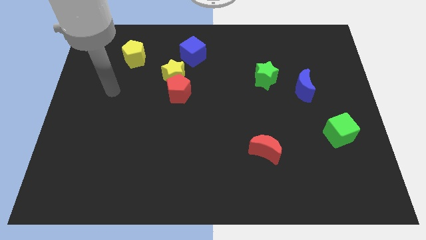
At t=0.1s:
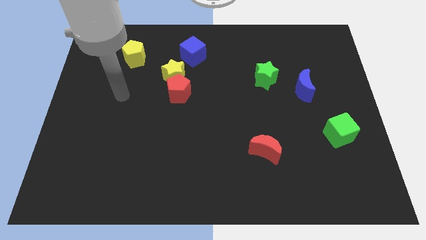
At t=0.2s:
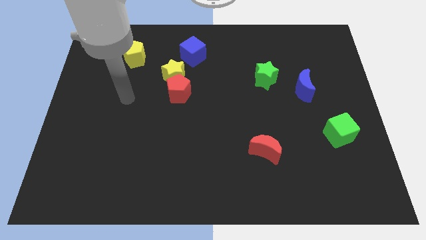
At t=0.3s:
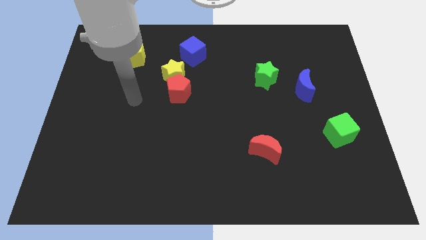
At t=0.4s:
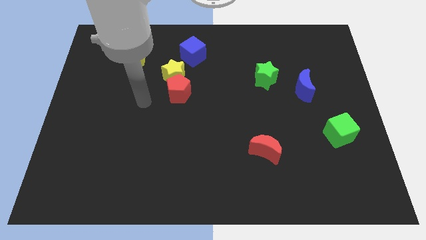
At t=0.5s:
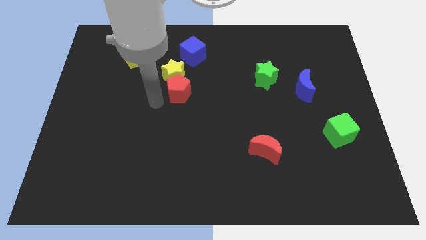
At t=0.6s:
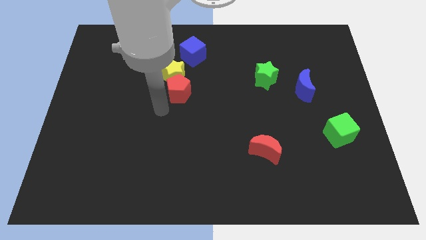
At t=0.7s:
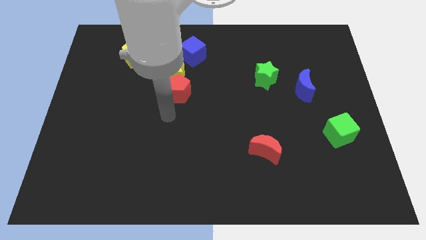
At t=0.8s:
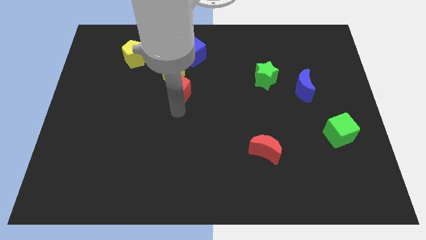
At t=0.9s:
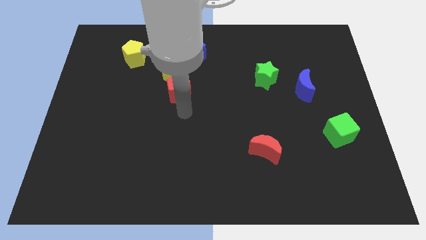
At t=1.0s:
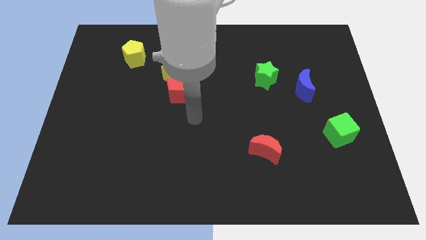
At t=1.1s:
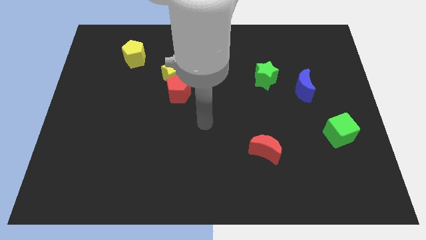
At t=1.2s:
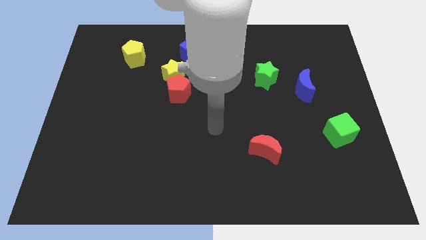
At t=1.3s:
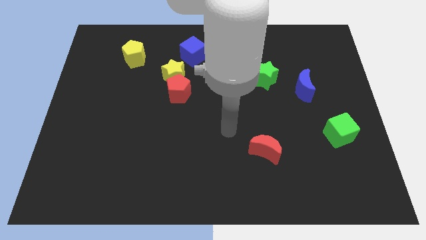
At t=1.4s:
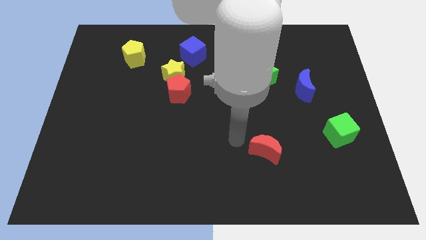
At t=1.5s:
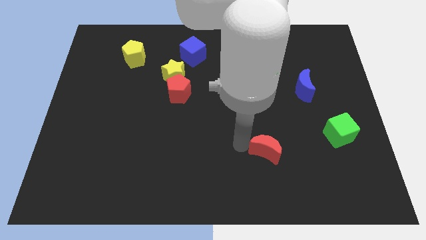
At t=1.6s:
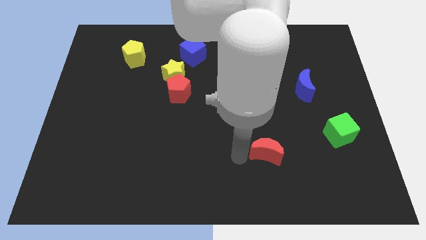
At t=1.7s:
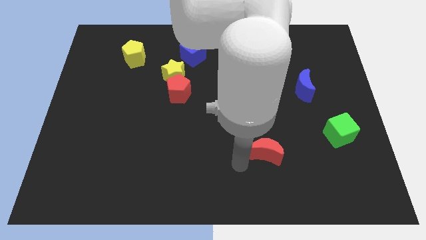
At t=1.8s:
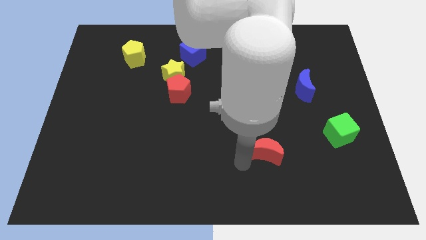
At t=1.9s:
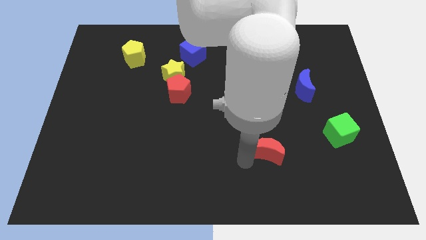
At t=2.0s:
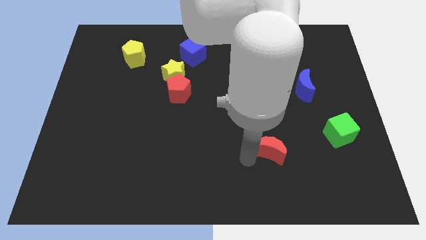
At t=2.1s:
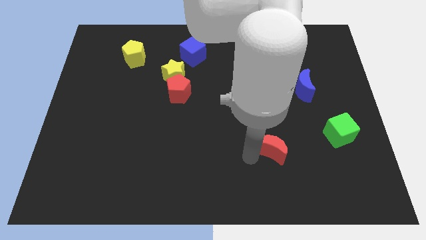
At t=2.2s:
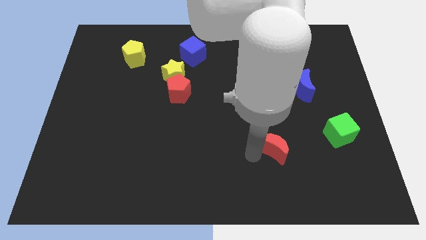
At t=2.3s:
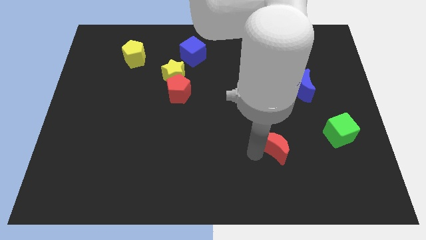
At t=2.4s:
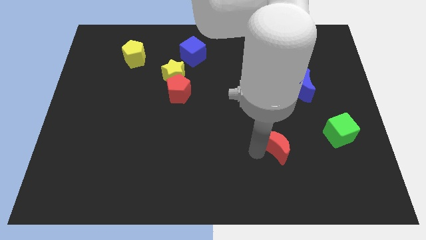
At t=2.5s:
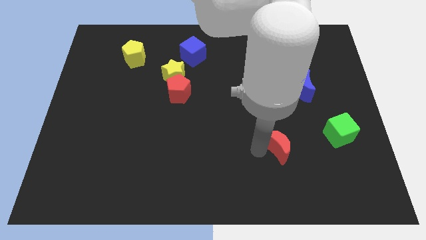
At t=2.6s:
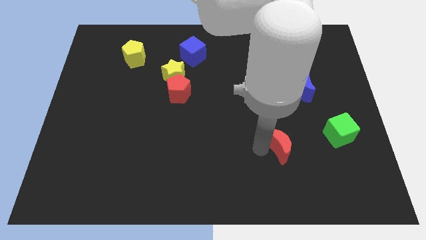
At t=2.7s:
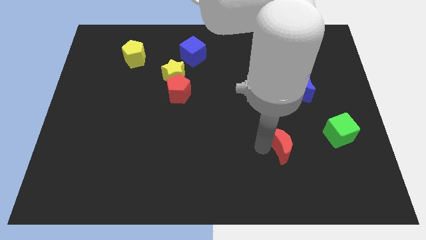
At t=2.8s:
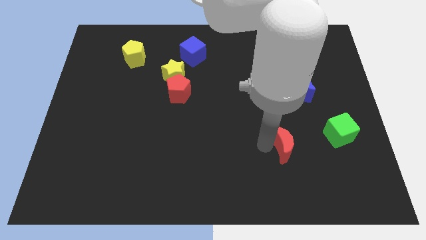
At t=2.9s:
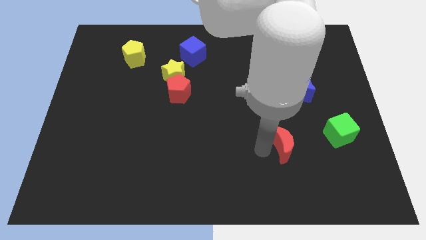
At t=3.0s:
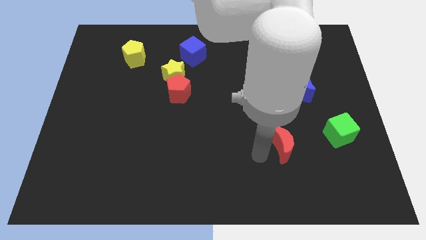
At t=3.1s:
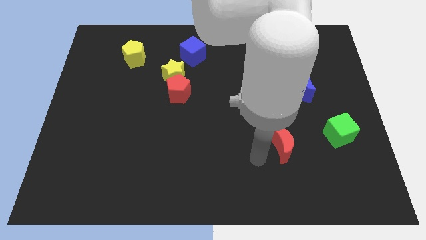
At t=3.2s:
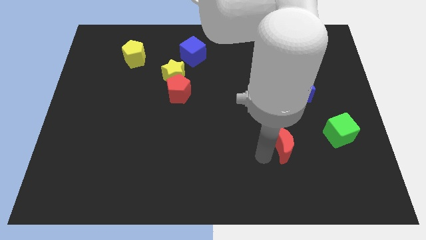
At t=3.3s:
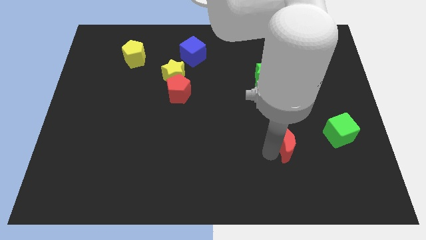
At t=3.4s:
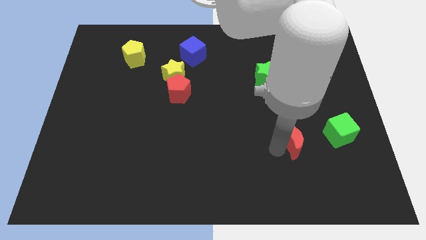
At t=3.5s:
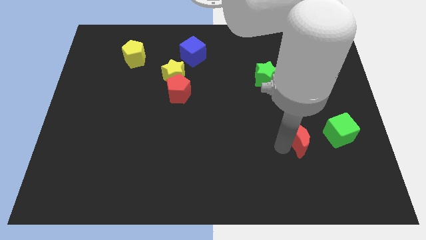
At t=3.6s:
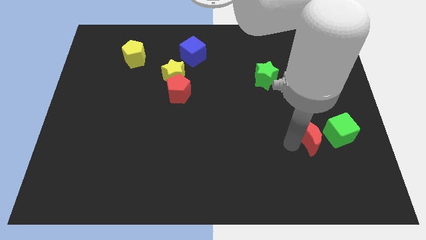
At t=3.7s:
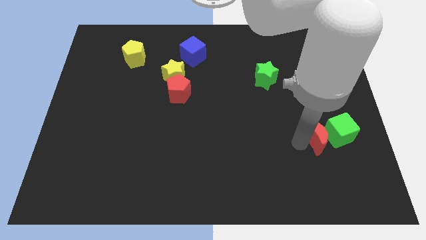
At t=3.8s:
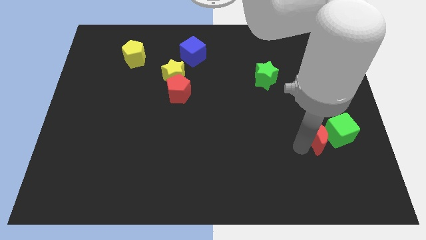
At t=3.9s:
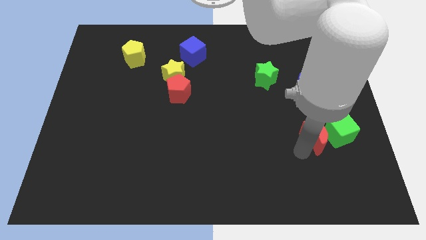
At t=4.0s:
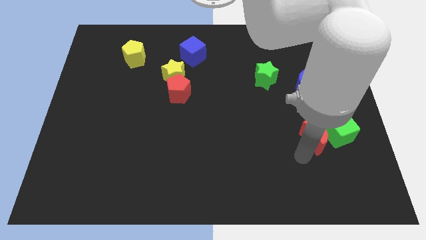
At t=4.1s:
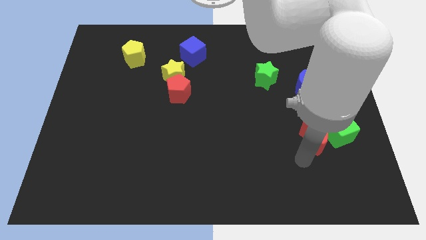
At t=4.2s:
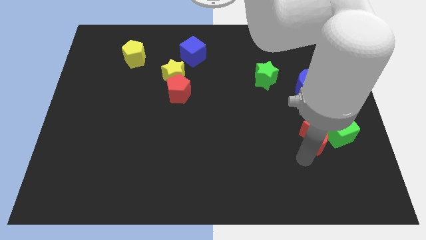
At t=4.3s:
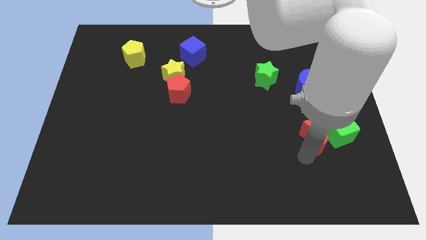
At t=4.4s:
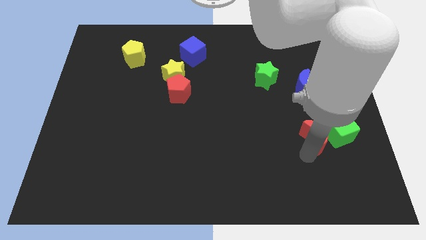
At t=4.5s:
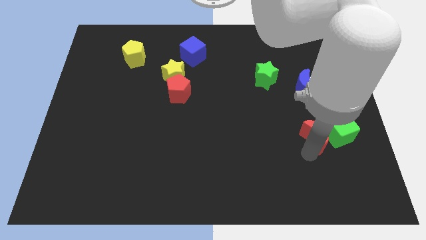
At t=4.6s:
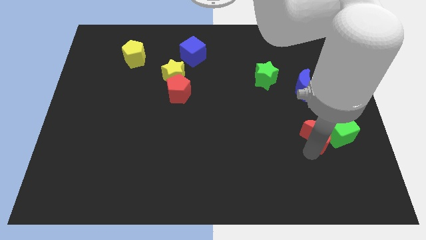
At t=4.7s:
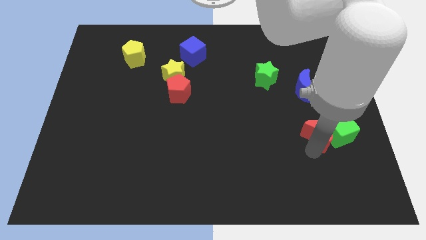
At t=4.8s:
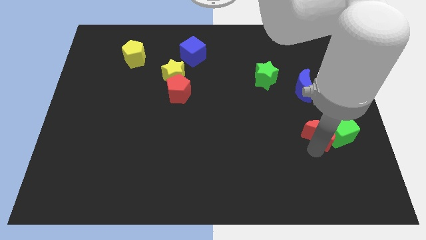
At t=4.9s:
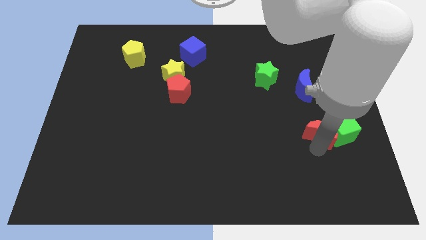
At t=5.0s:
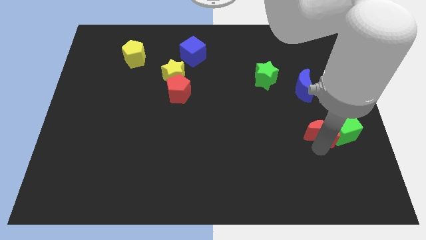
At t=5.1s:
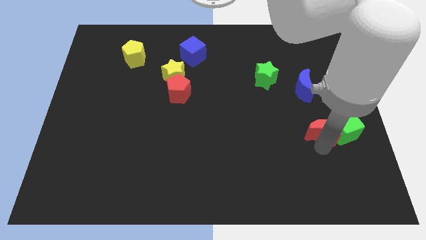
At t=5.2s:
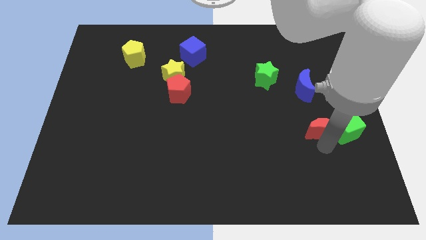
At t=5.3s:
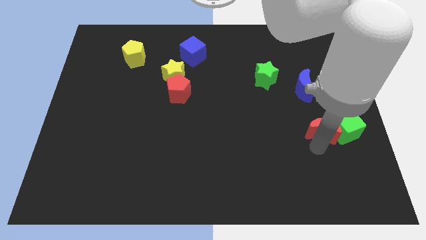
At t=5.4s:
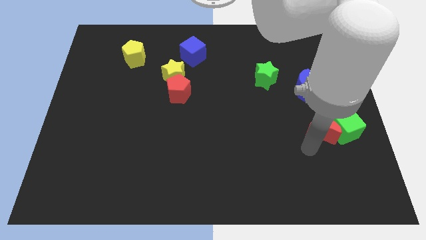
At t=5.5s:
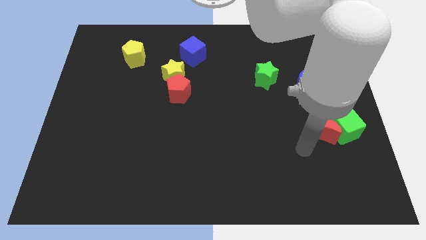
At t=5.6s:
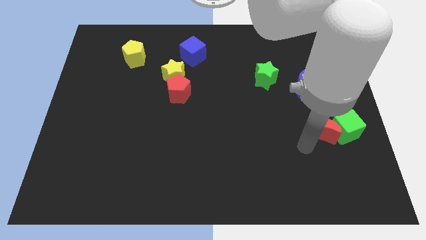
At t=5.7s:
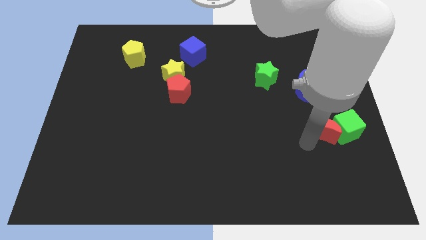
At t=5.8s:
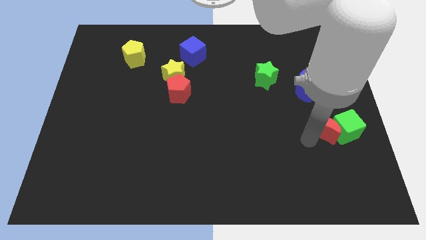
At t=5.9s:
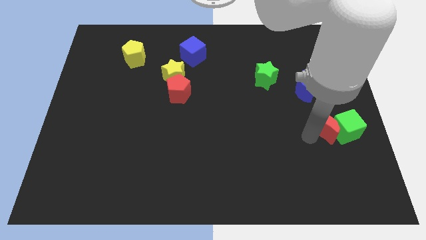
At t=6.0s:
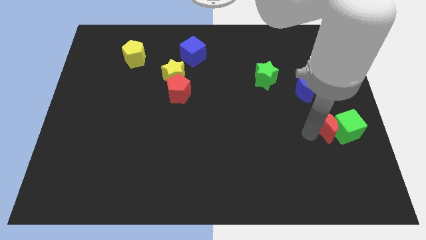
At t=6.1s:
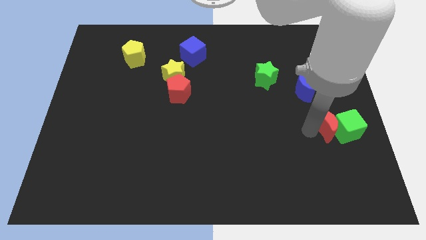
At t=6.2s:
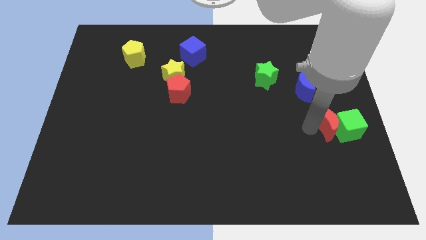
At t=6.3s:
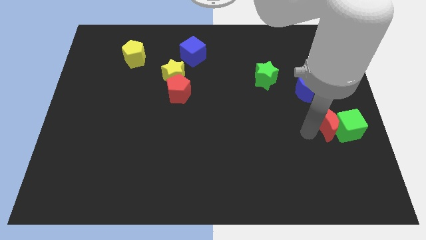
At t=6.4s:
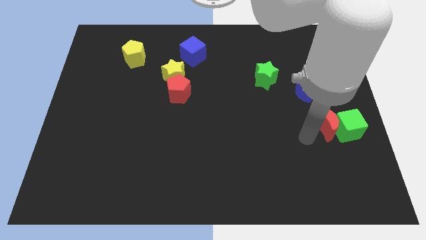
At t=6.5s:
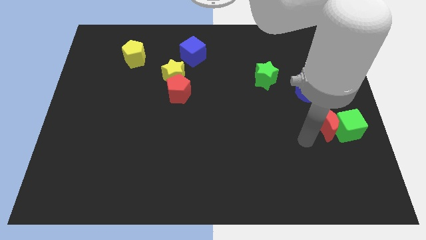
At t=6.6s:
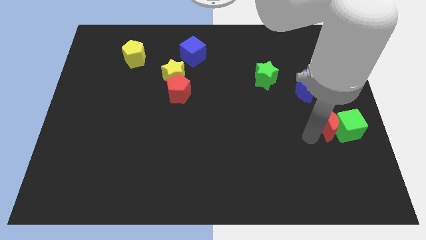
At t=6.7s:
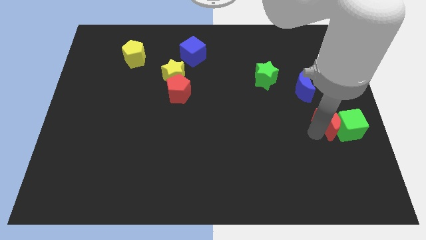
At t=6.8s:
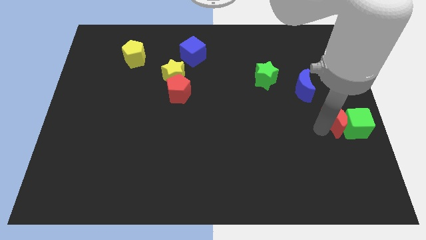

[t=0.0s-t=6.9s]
slide the red moon to the right side
